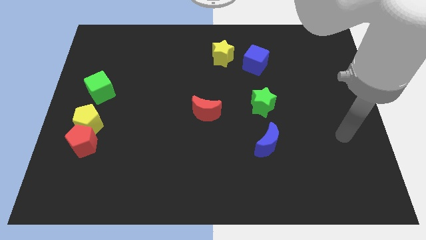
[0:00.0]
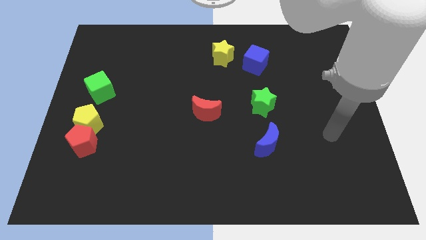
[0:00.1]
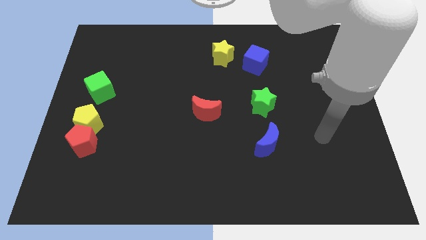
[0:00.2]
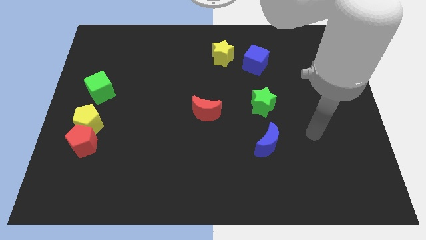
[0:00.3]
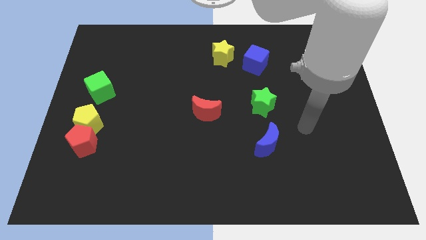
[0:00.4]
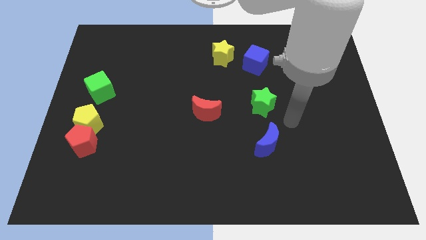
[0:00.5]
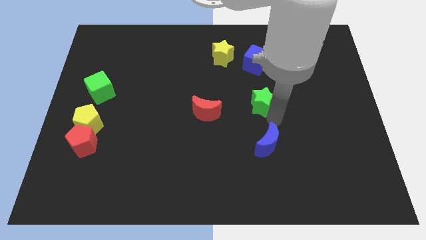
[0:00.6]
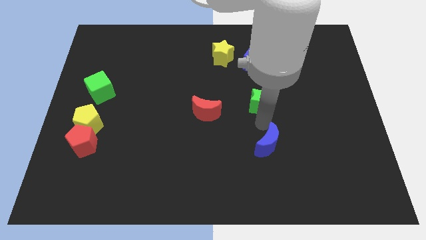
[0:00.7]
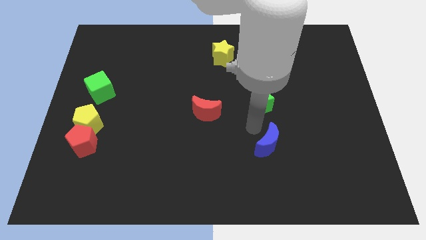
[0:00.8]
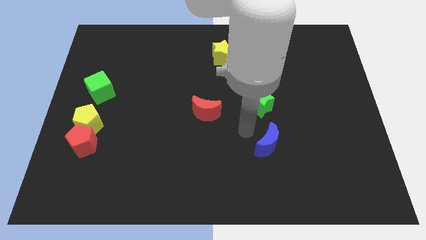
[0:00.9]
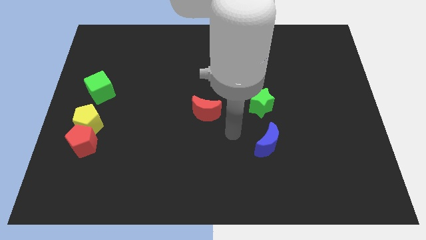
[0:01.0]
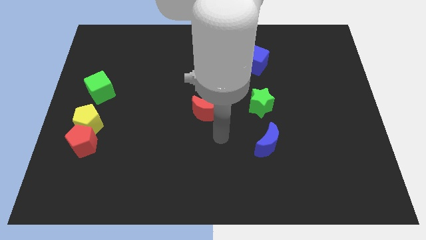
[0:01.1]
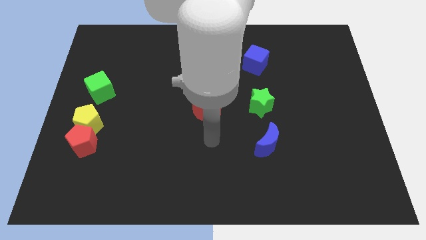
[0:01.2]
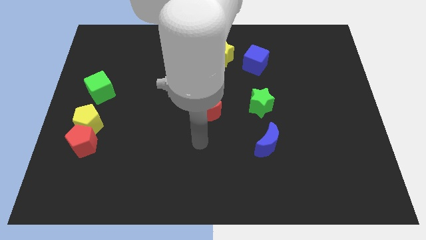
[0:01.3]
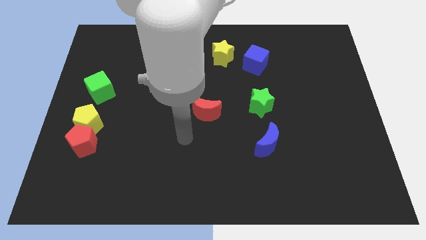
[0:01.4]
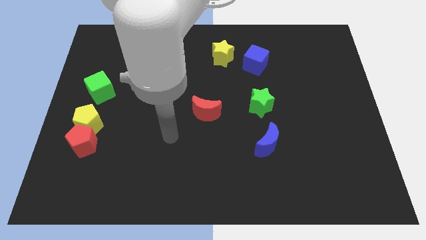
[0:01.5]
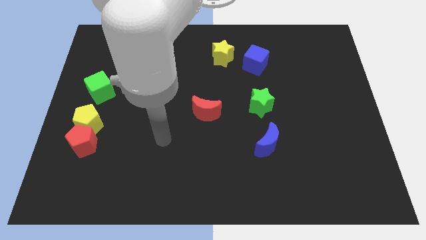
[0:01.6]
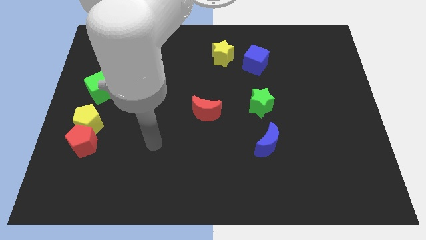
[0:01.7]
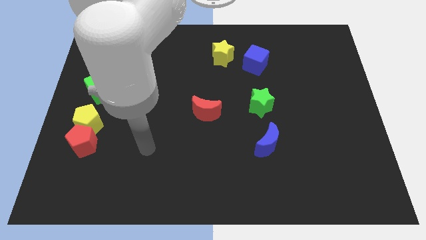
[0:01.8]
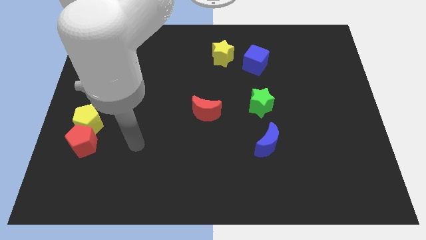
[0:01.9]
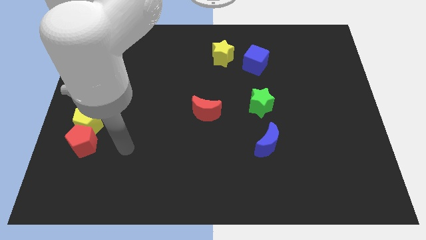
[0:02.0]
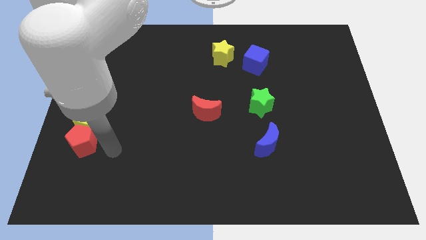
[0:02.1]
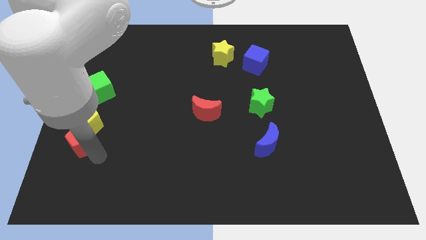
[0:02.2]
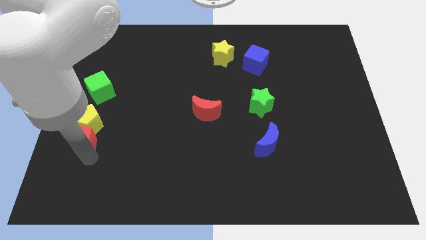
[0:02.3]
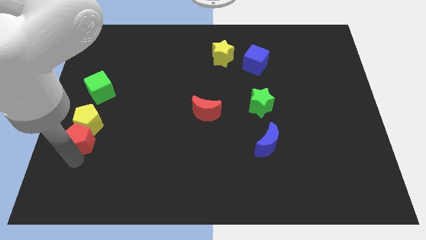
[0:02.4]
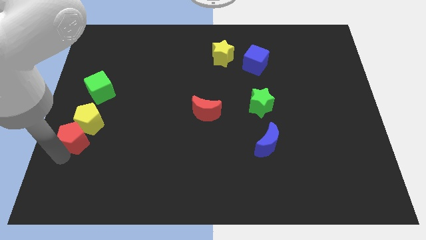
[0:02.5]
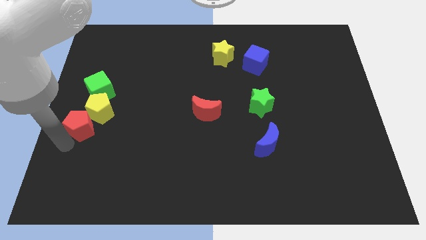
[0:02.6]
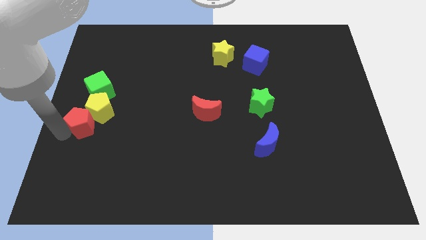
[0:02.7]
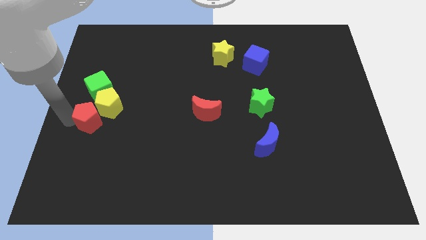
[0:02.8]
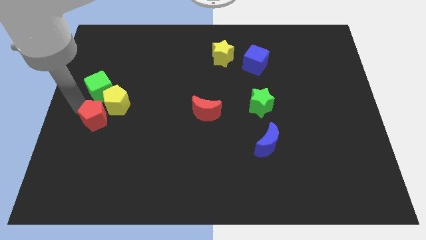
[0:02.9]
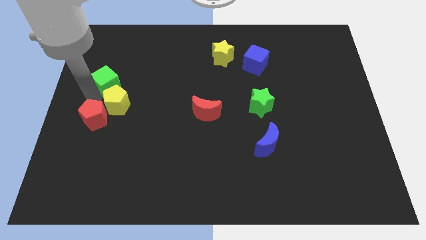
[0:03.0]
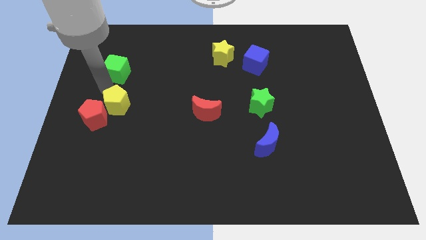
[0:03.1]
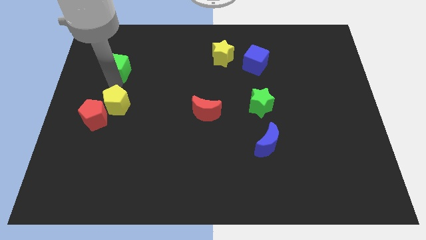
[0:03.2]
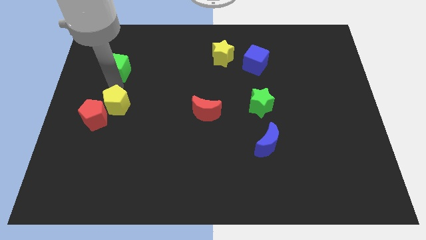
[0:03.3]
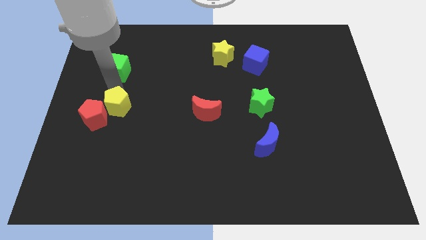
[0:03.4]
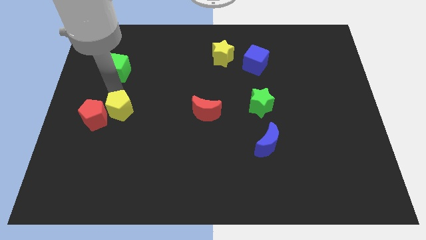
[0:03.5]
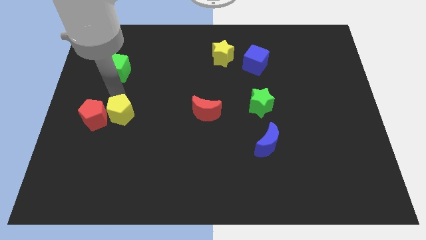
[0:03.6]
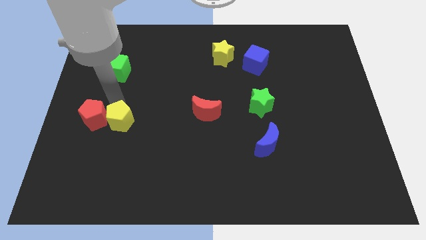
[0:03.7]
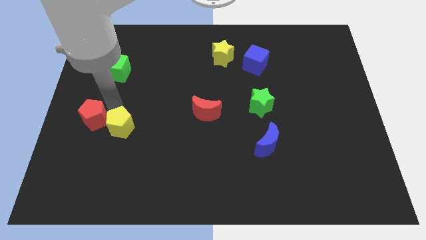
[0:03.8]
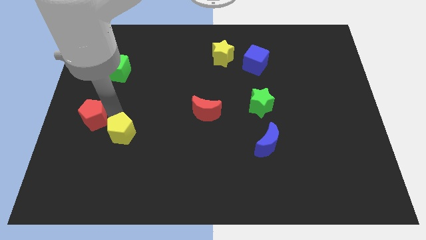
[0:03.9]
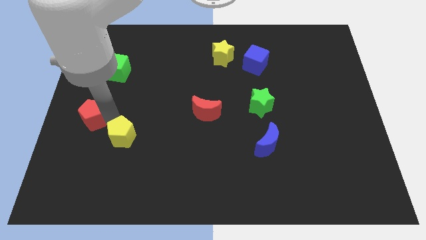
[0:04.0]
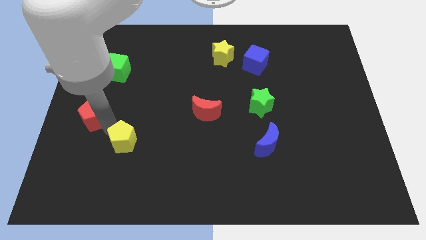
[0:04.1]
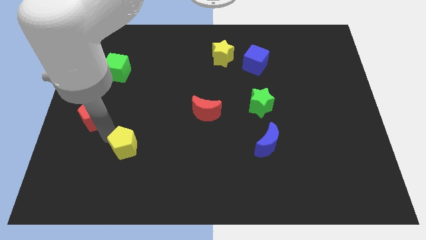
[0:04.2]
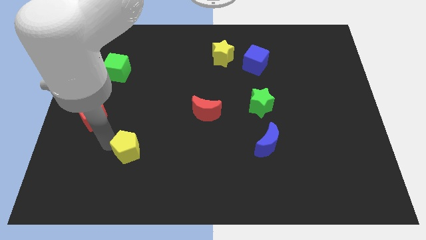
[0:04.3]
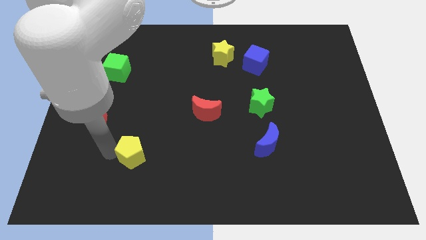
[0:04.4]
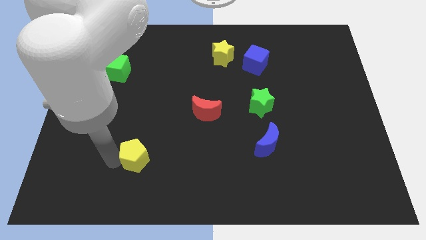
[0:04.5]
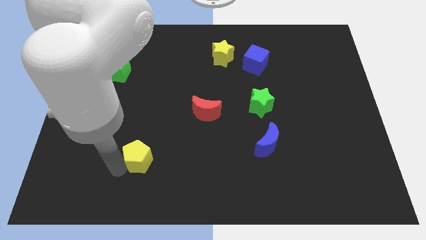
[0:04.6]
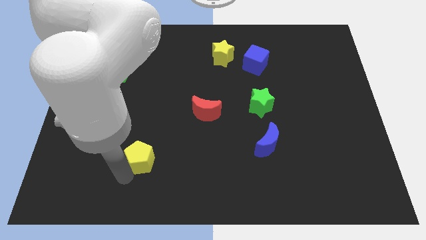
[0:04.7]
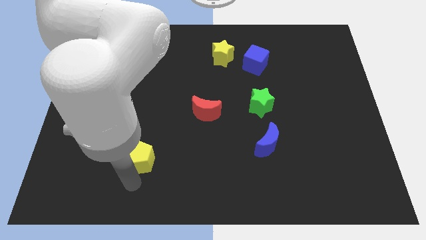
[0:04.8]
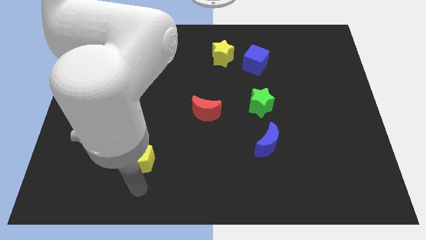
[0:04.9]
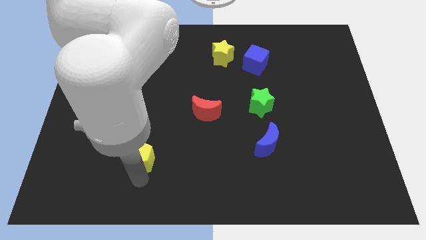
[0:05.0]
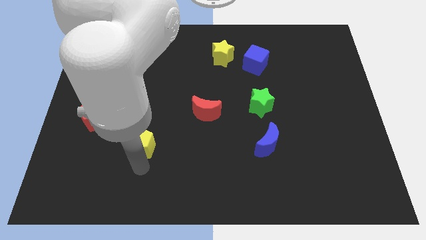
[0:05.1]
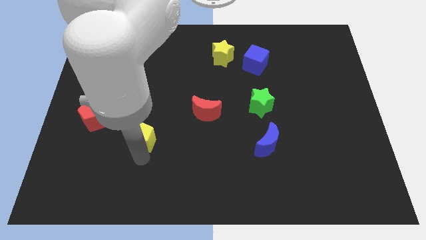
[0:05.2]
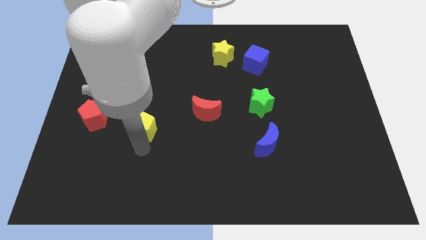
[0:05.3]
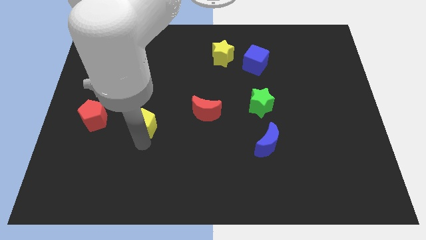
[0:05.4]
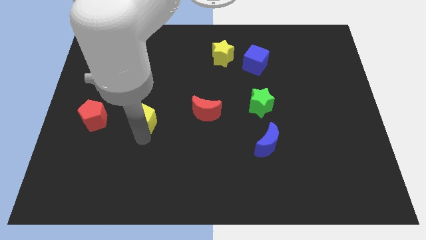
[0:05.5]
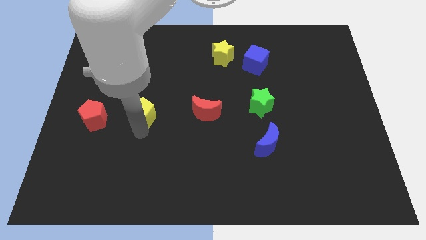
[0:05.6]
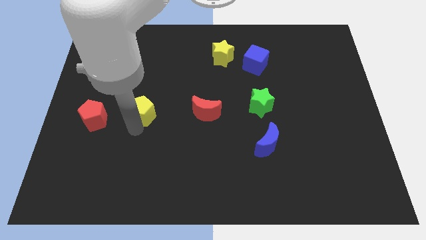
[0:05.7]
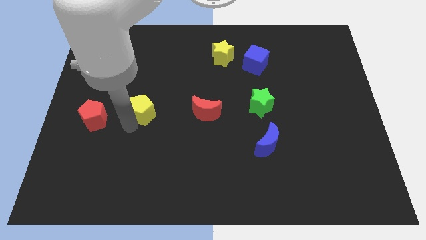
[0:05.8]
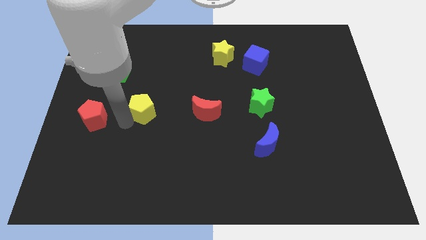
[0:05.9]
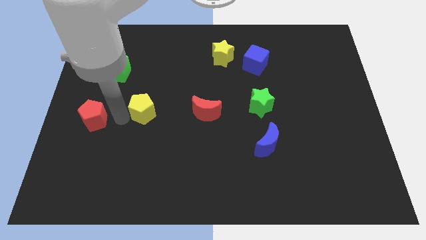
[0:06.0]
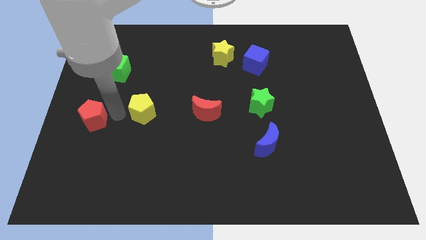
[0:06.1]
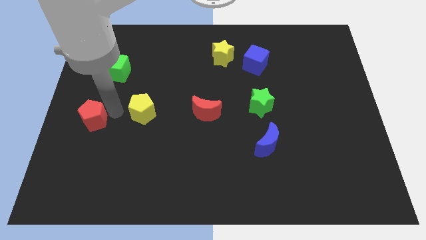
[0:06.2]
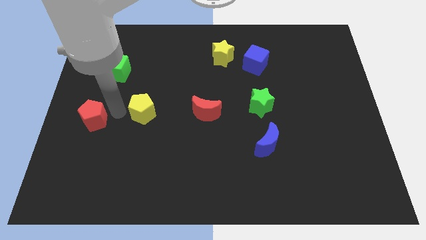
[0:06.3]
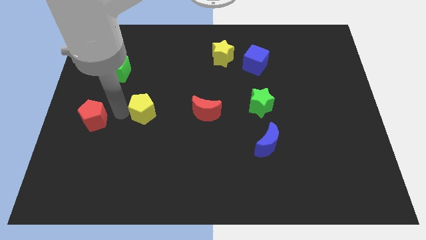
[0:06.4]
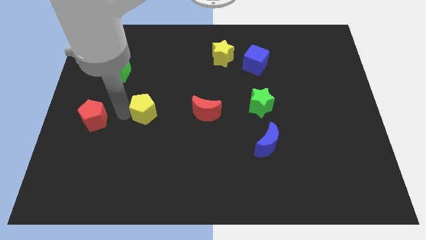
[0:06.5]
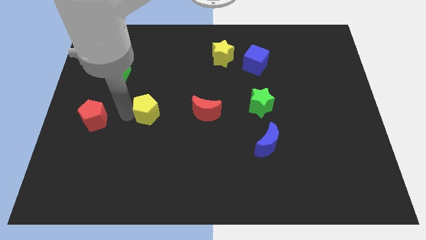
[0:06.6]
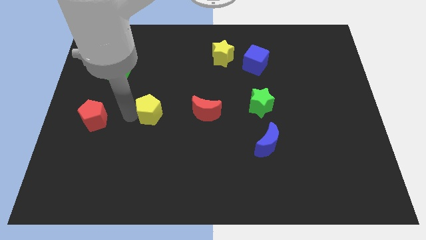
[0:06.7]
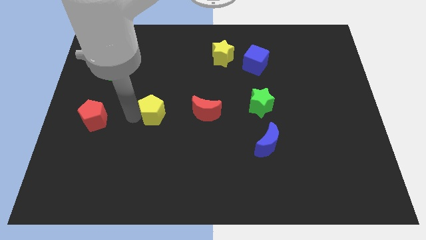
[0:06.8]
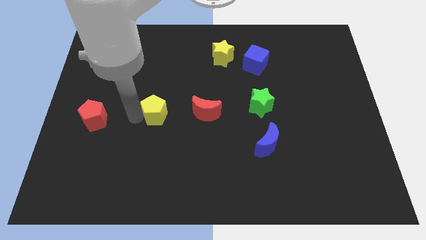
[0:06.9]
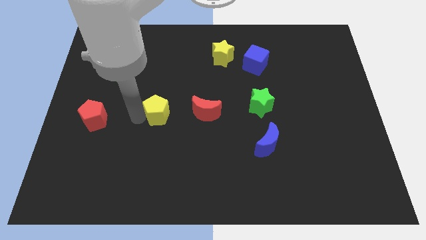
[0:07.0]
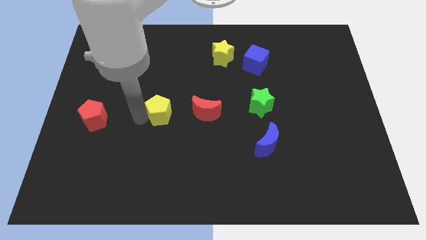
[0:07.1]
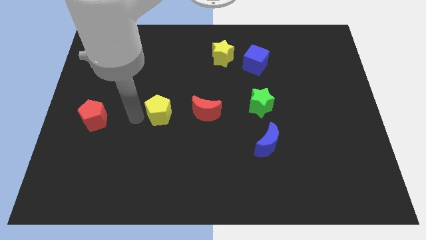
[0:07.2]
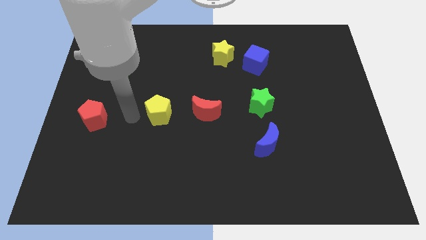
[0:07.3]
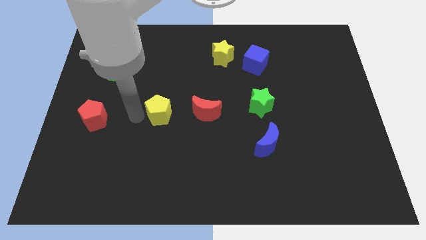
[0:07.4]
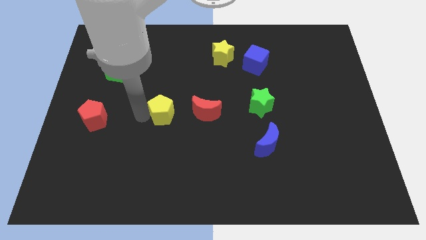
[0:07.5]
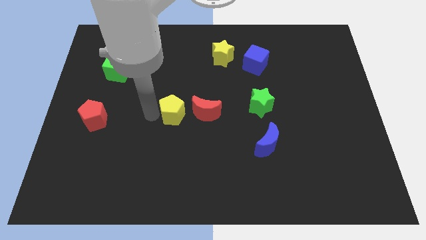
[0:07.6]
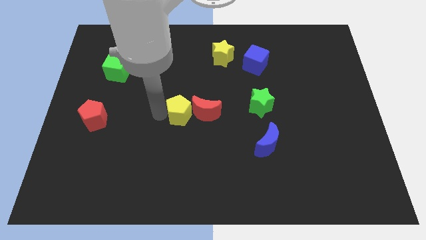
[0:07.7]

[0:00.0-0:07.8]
put the yellow pentagon towards the red moon

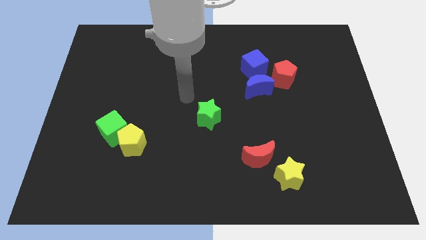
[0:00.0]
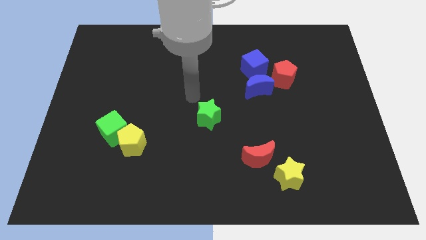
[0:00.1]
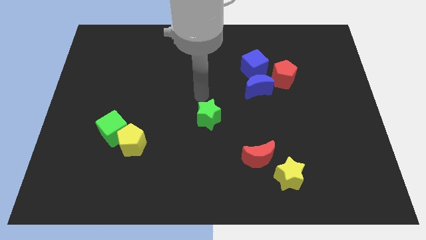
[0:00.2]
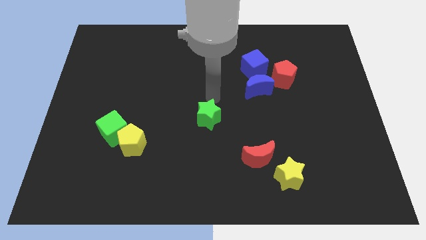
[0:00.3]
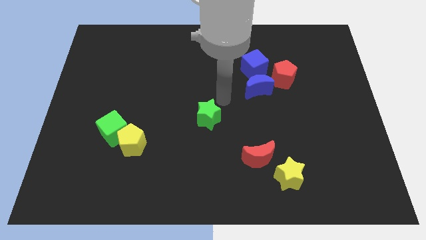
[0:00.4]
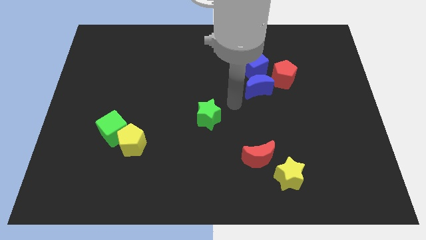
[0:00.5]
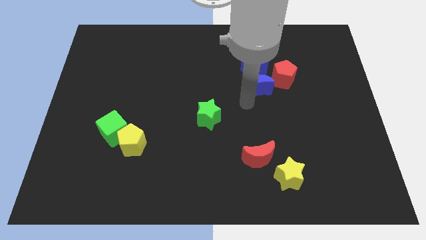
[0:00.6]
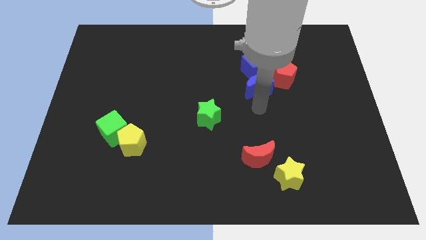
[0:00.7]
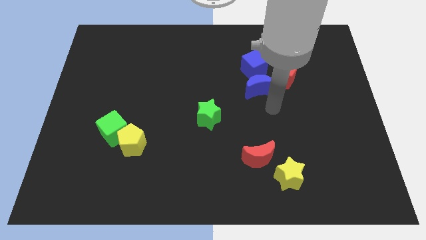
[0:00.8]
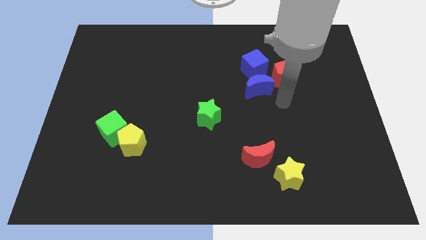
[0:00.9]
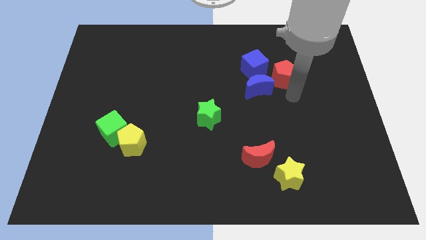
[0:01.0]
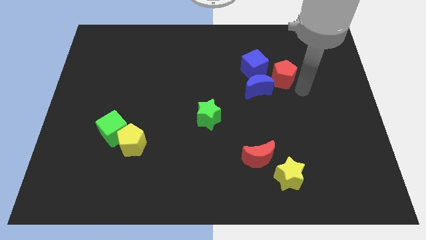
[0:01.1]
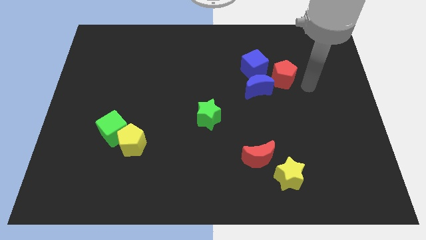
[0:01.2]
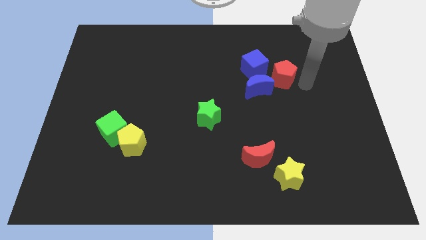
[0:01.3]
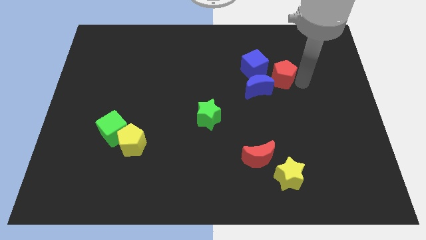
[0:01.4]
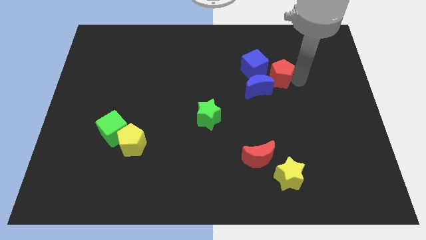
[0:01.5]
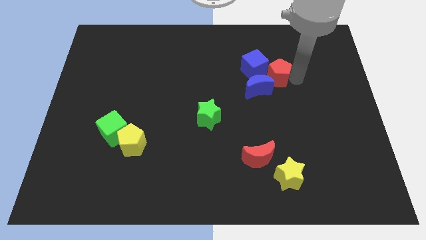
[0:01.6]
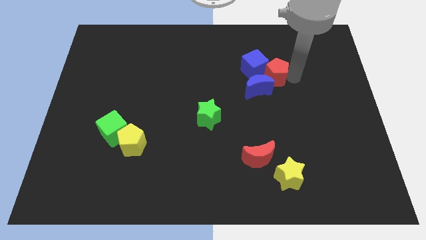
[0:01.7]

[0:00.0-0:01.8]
put the red pentagon next to the blue cube
